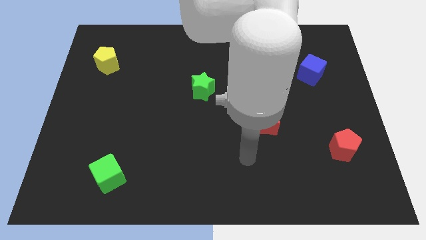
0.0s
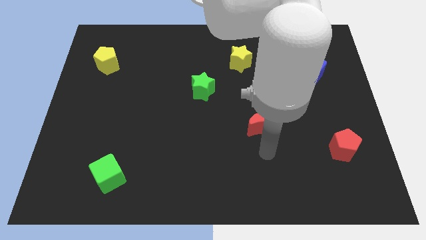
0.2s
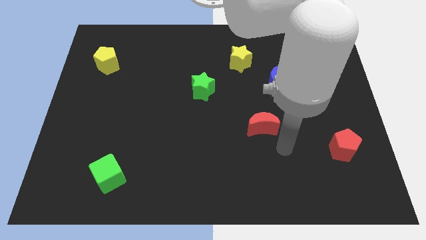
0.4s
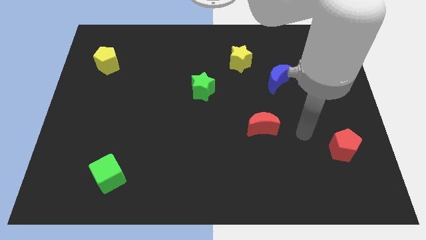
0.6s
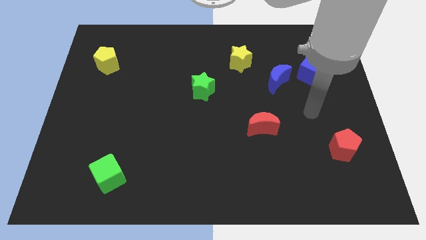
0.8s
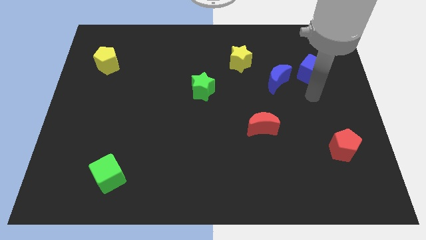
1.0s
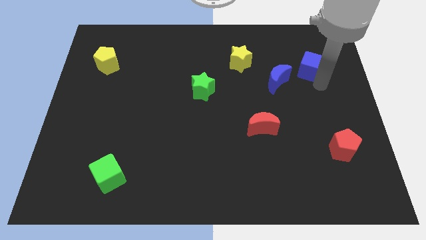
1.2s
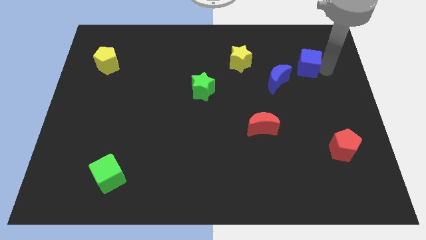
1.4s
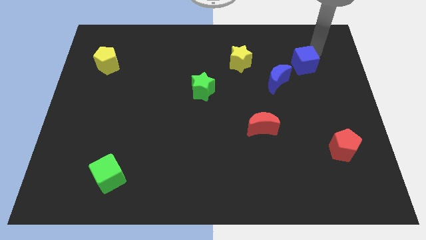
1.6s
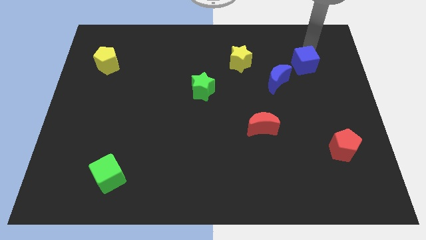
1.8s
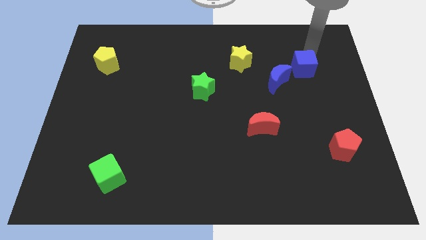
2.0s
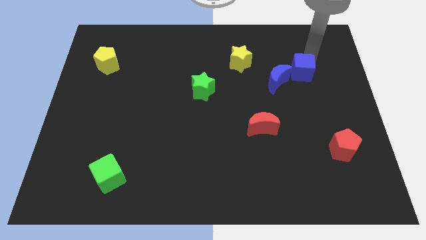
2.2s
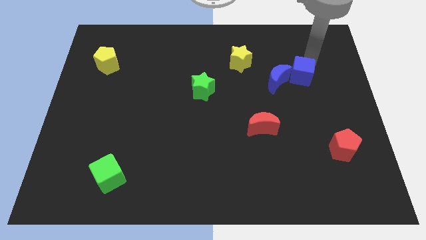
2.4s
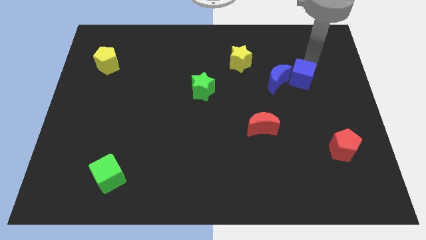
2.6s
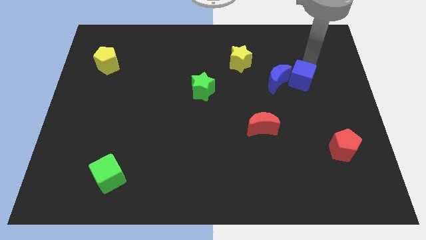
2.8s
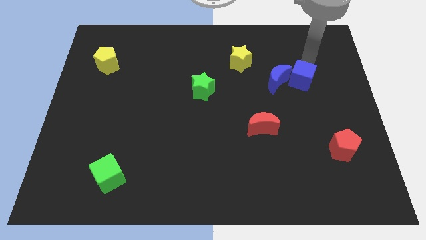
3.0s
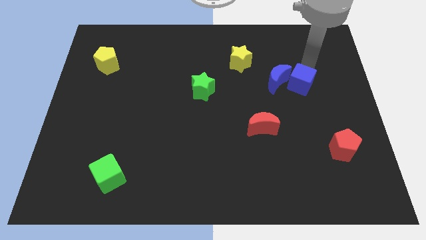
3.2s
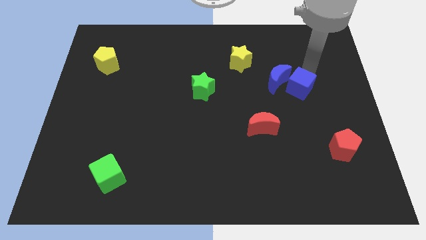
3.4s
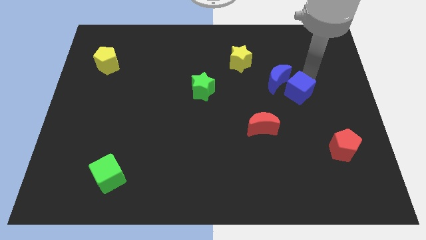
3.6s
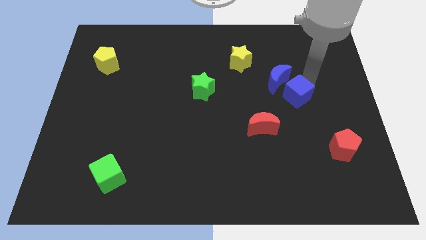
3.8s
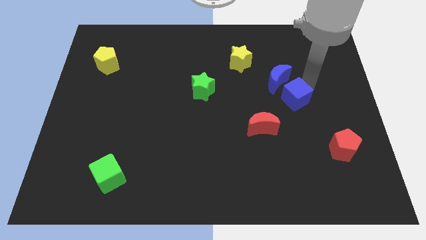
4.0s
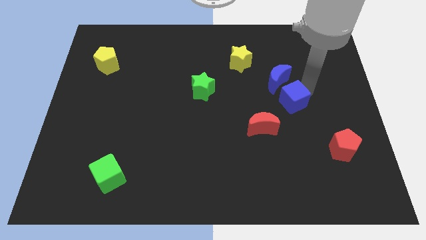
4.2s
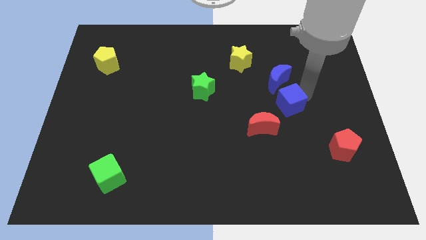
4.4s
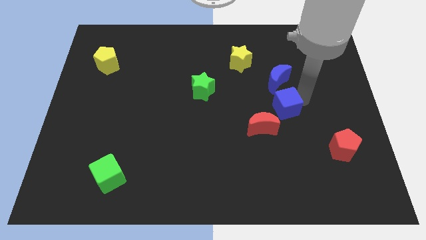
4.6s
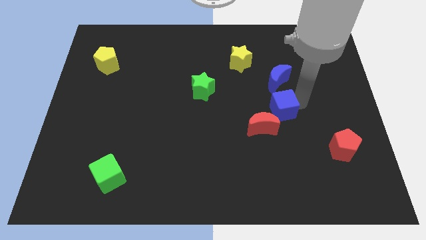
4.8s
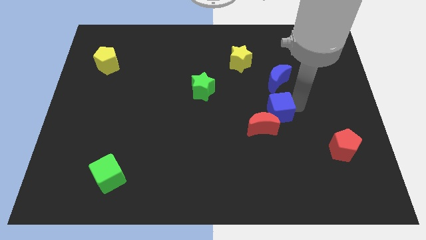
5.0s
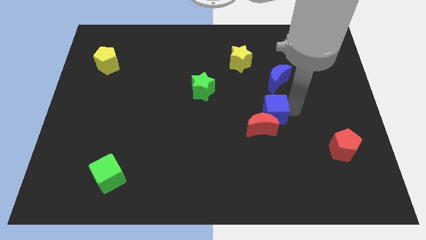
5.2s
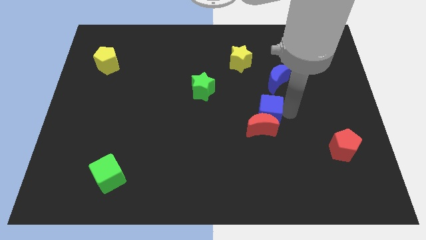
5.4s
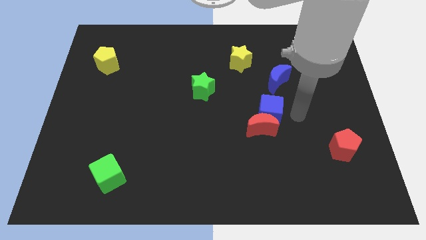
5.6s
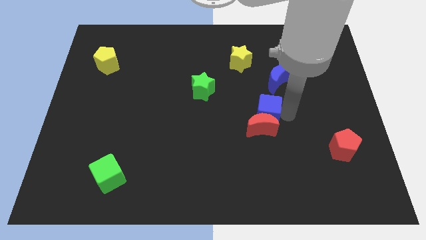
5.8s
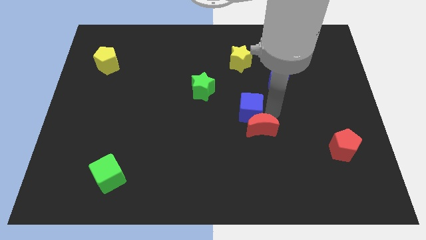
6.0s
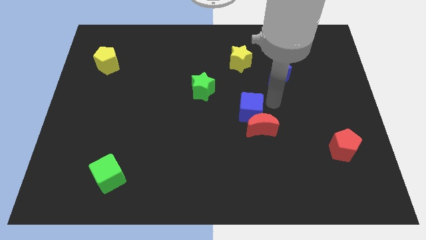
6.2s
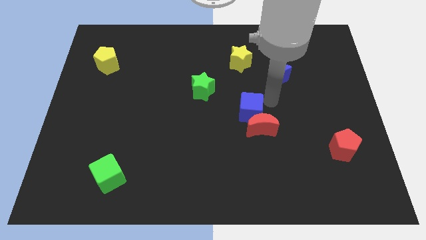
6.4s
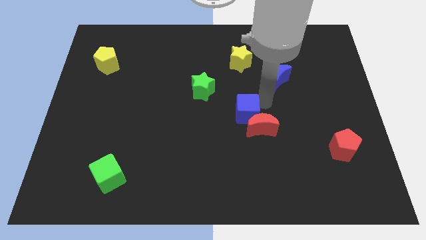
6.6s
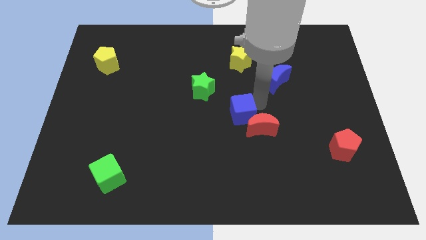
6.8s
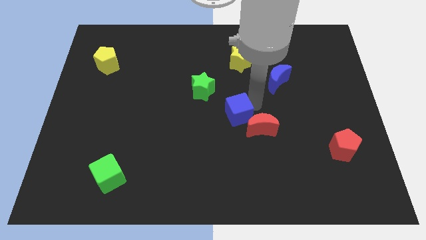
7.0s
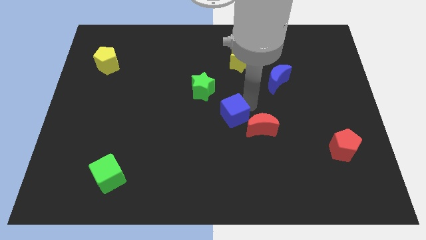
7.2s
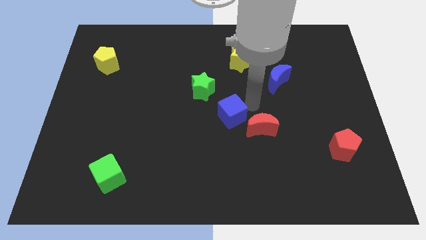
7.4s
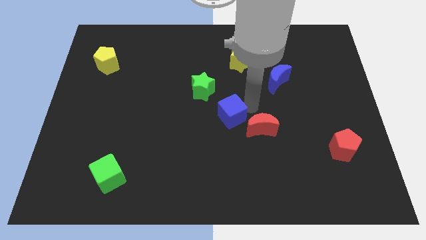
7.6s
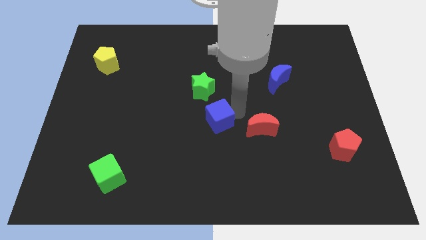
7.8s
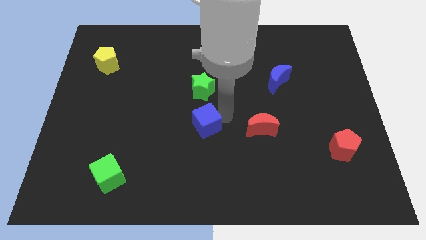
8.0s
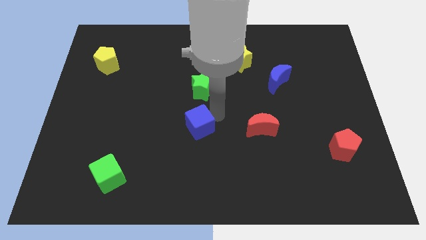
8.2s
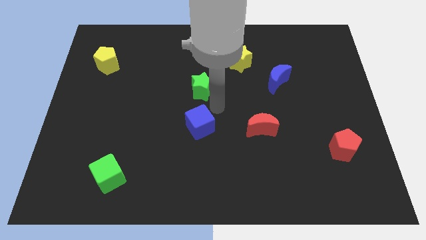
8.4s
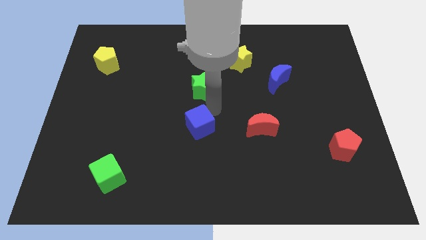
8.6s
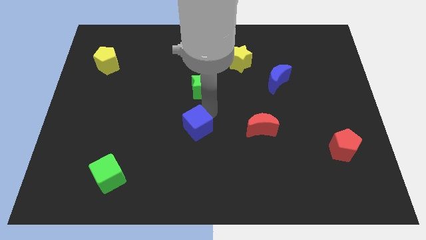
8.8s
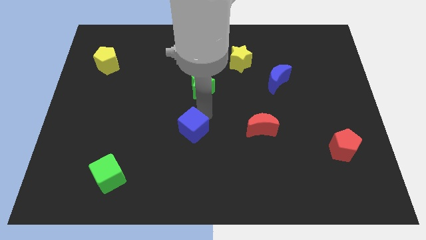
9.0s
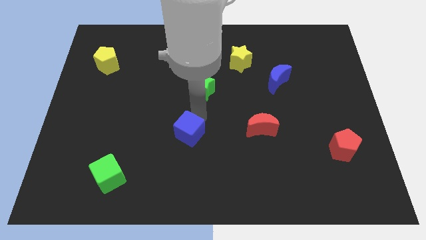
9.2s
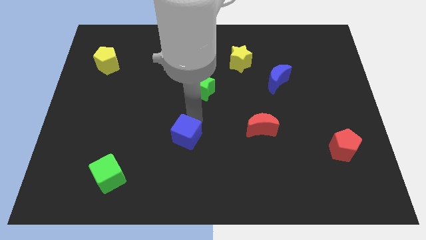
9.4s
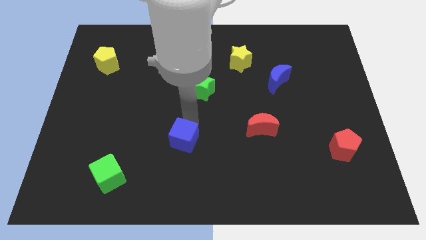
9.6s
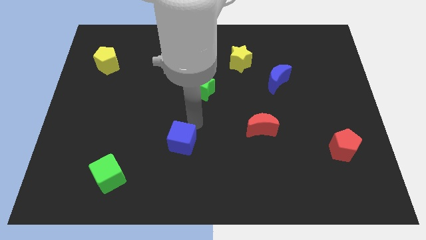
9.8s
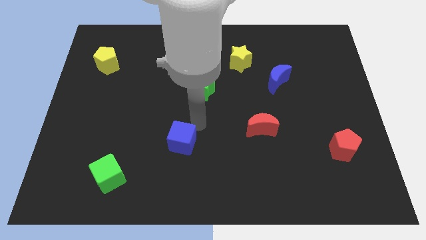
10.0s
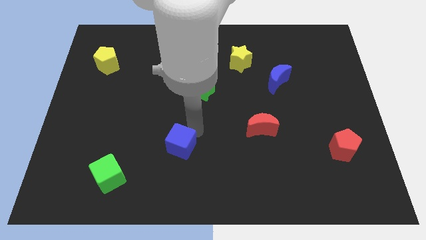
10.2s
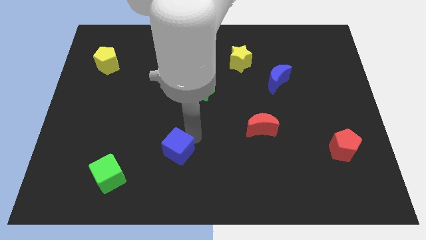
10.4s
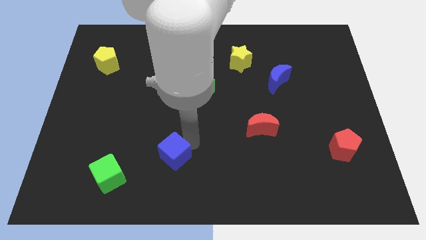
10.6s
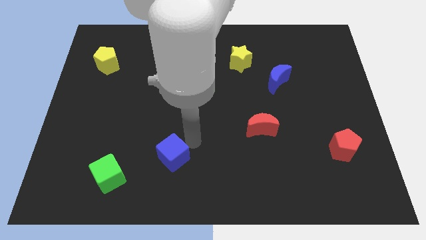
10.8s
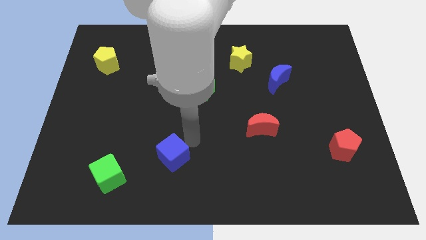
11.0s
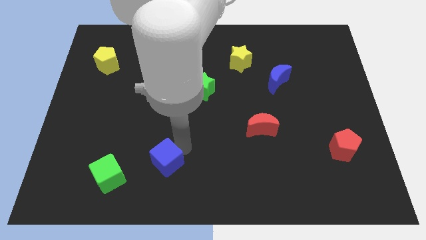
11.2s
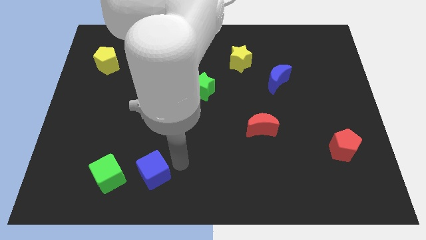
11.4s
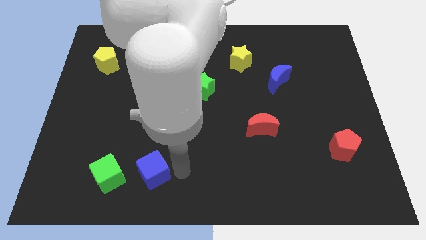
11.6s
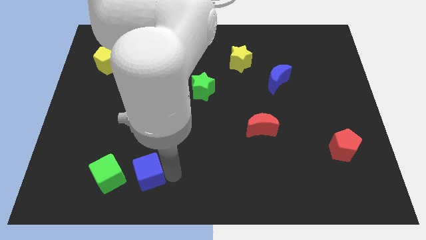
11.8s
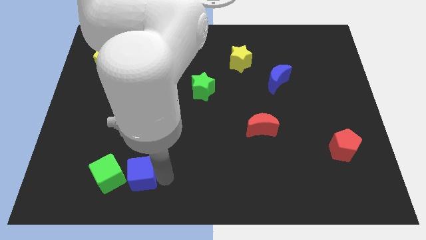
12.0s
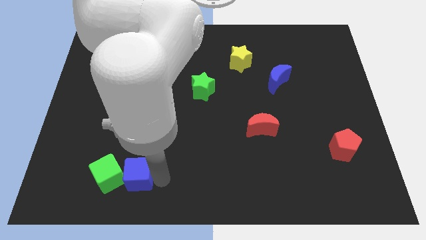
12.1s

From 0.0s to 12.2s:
push the blue cube close to the green cube

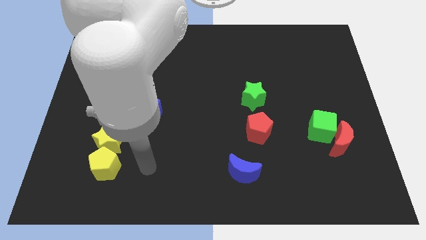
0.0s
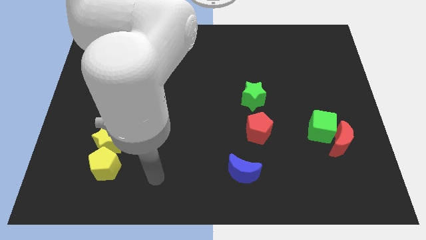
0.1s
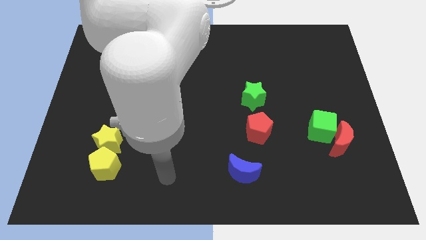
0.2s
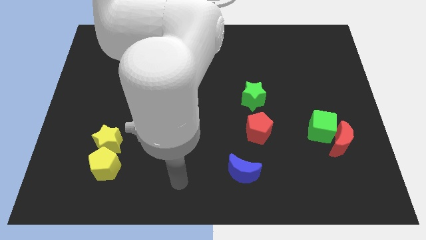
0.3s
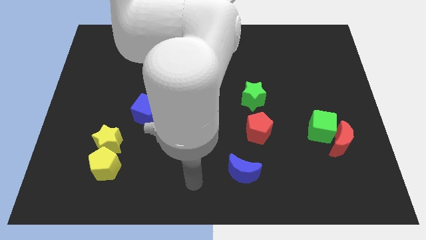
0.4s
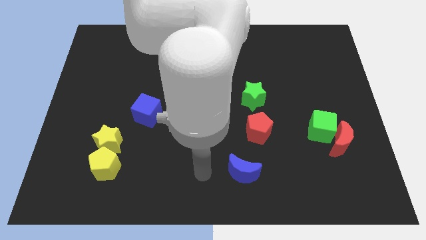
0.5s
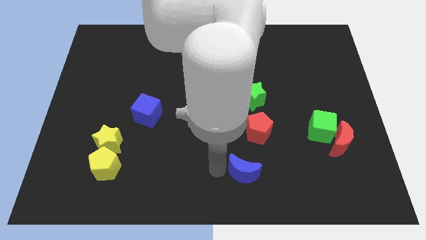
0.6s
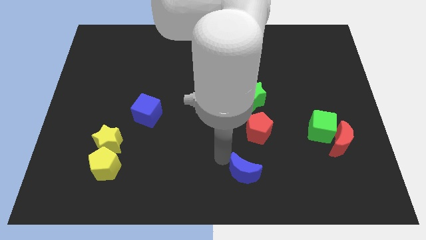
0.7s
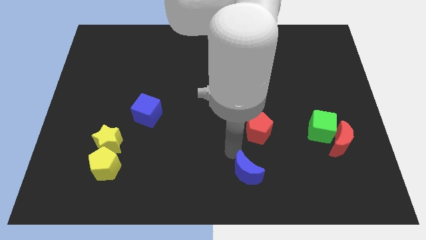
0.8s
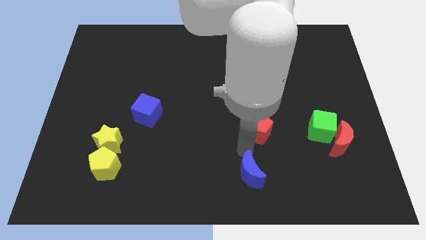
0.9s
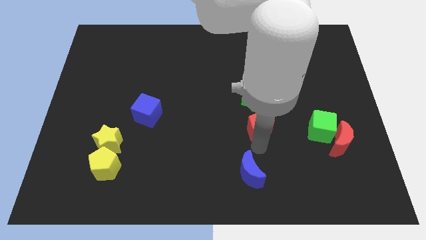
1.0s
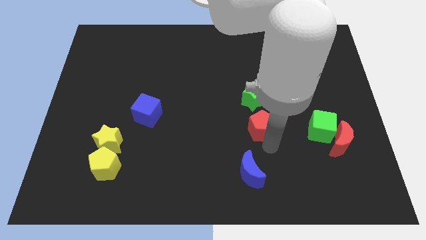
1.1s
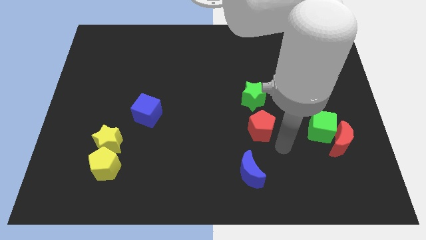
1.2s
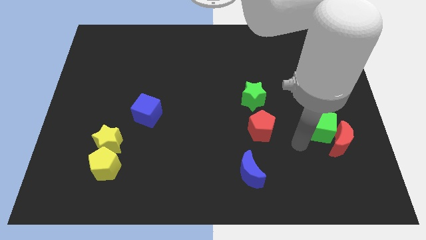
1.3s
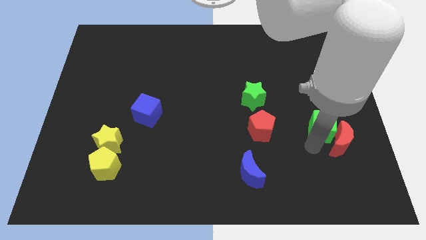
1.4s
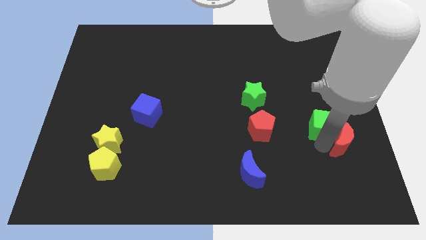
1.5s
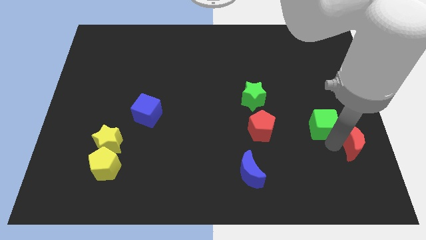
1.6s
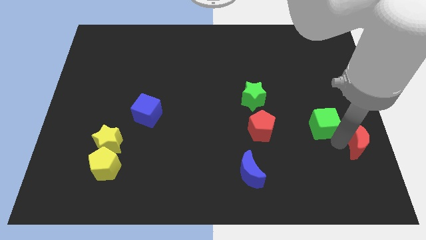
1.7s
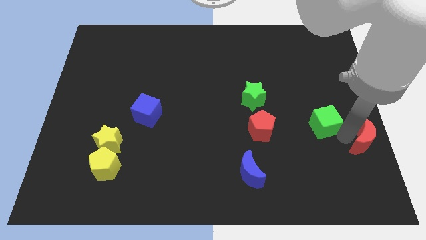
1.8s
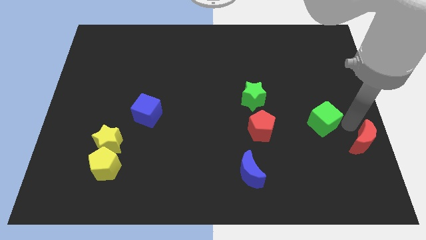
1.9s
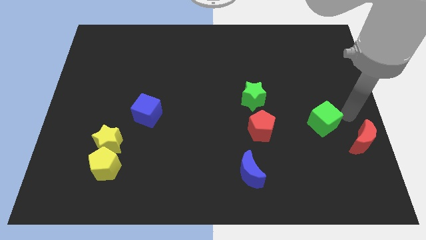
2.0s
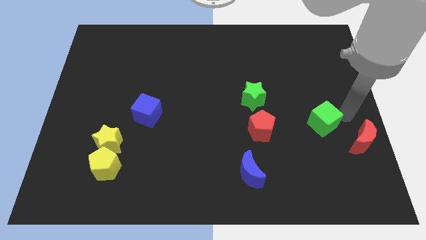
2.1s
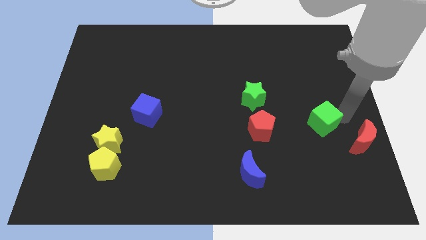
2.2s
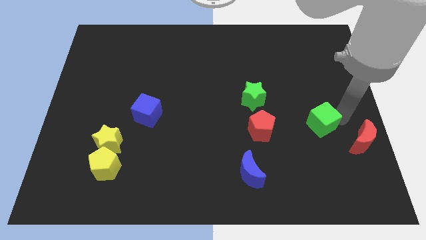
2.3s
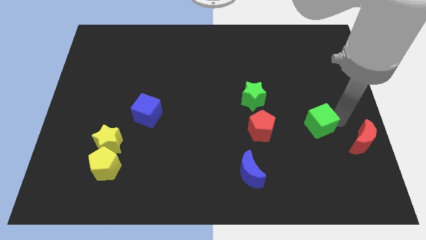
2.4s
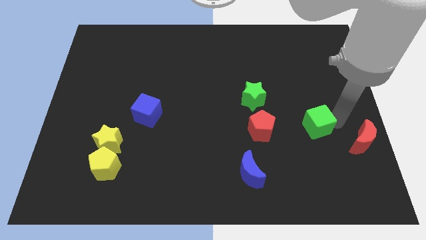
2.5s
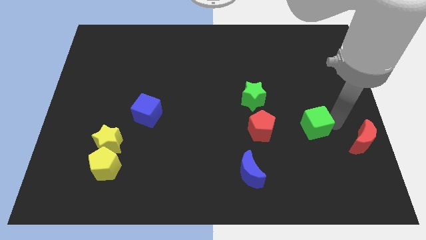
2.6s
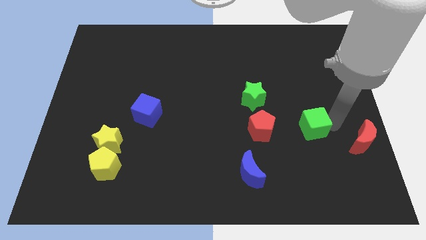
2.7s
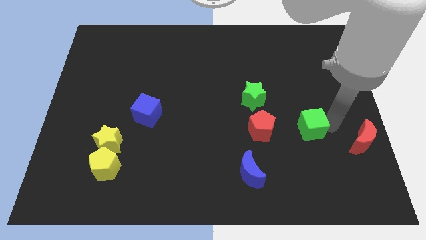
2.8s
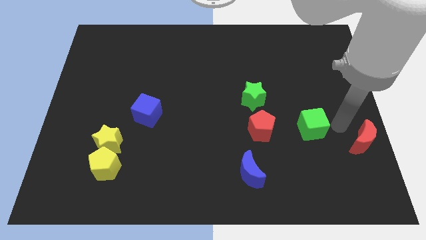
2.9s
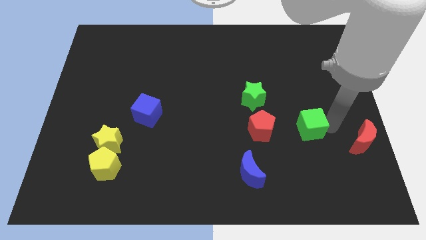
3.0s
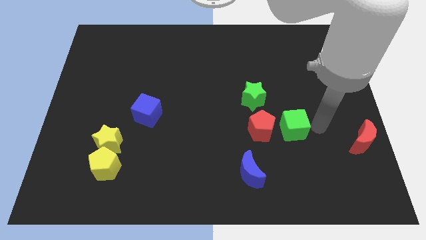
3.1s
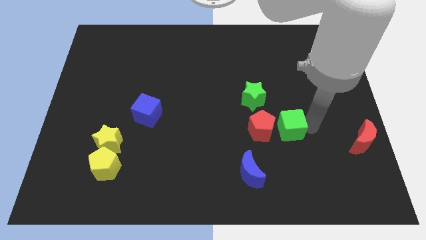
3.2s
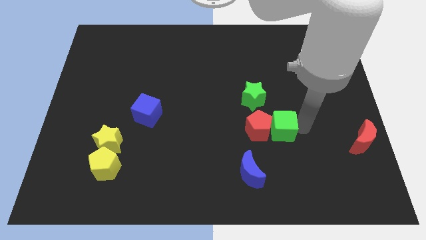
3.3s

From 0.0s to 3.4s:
push the green cube to the red pentagon
